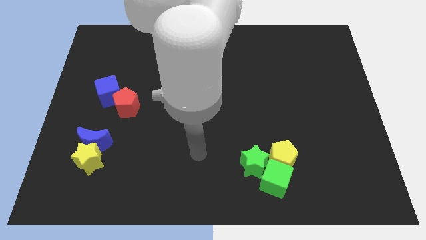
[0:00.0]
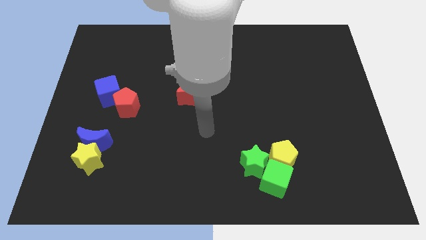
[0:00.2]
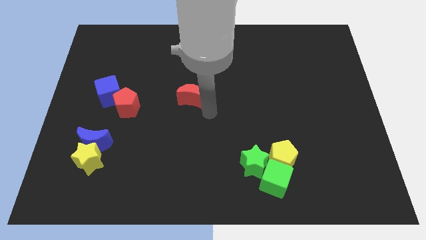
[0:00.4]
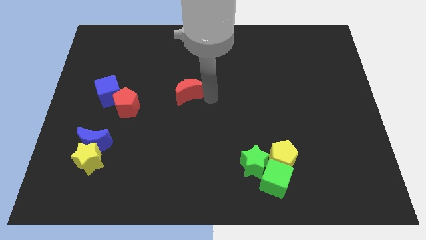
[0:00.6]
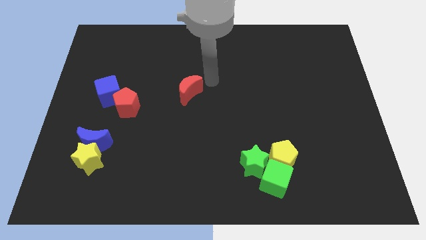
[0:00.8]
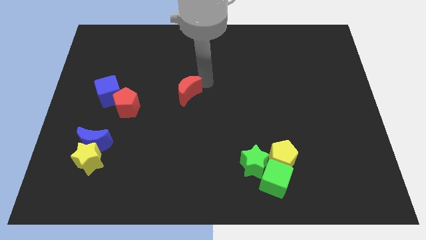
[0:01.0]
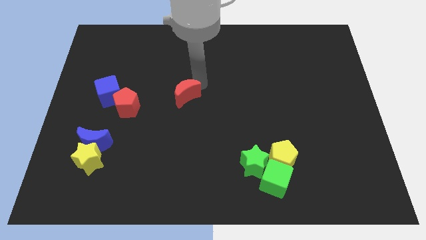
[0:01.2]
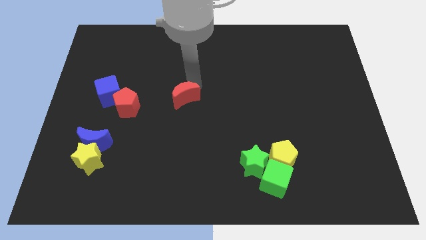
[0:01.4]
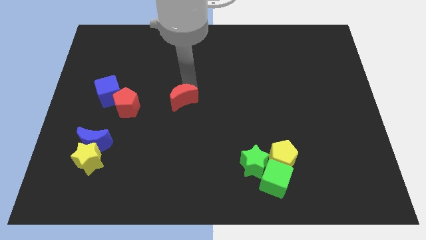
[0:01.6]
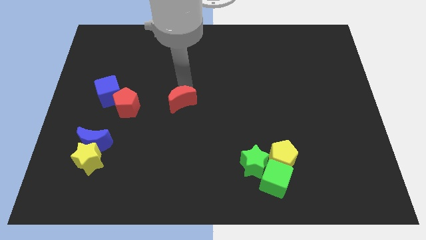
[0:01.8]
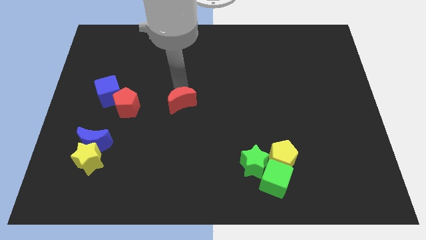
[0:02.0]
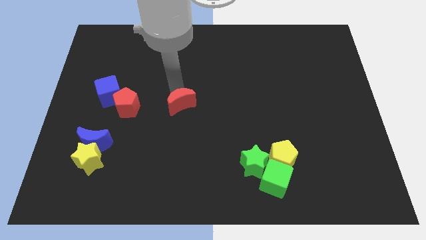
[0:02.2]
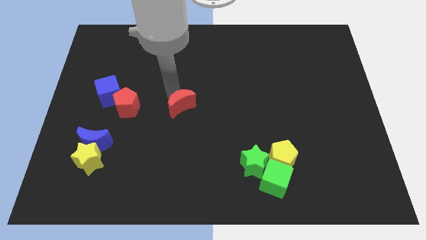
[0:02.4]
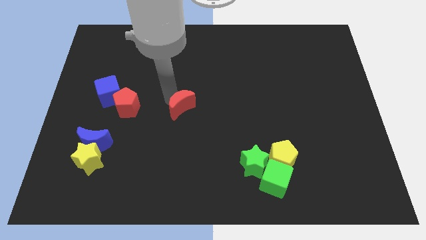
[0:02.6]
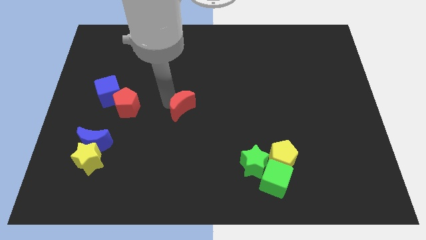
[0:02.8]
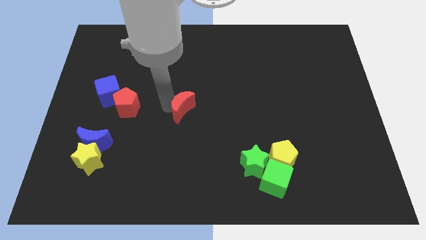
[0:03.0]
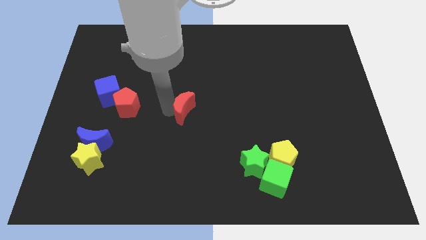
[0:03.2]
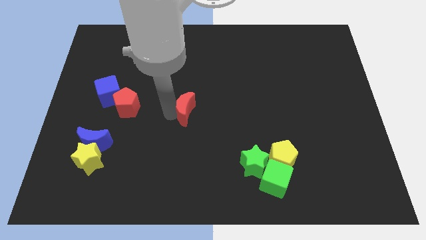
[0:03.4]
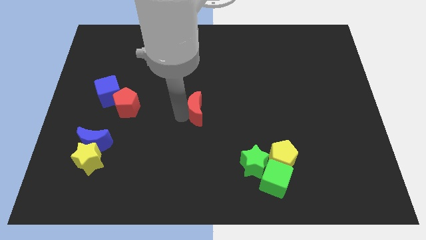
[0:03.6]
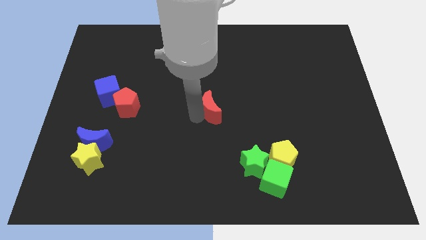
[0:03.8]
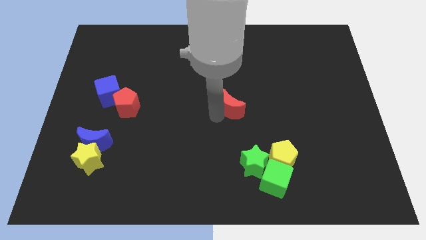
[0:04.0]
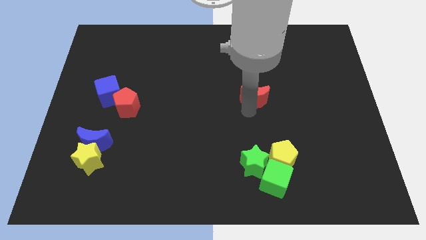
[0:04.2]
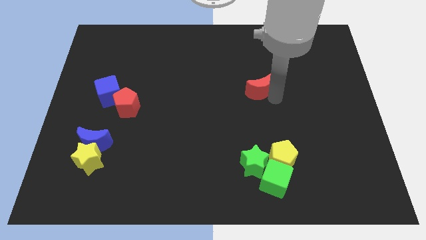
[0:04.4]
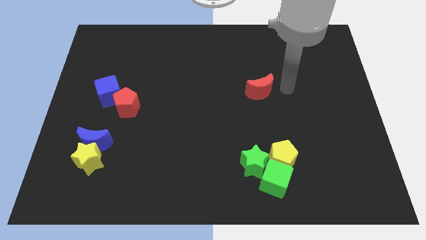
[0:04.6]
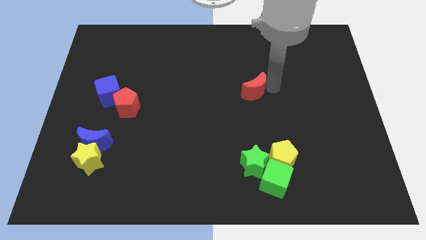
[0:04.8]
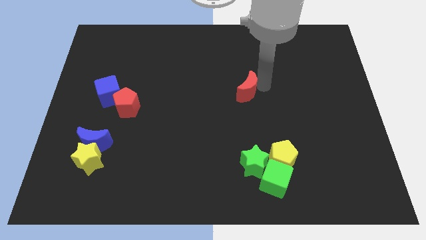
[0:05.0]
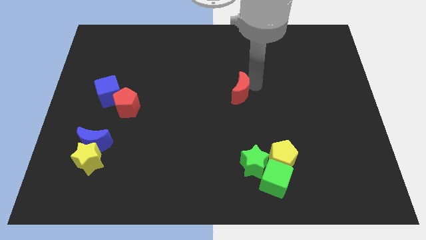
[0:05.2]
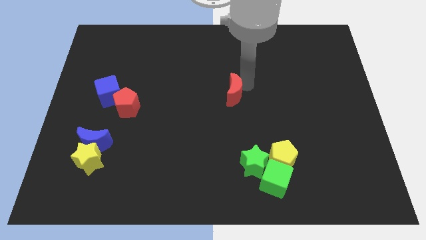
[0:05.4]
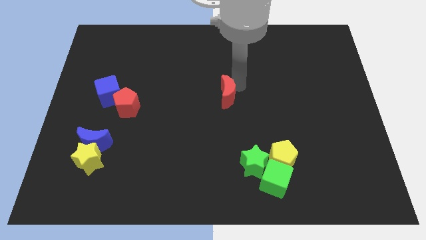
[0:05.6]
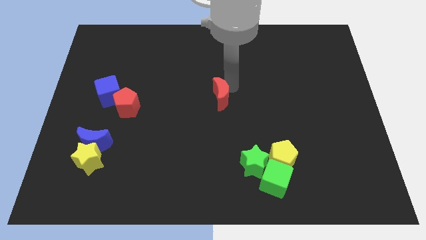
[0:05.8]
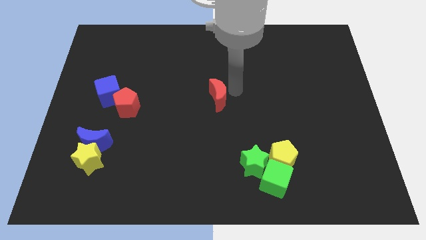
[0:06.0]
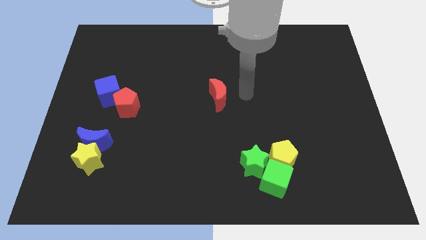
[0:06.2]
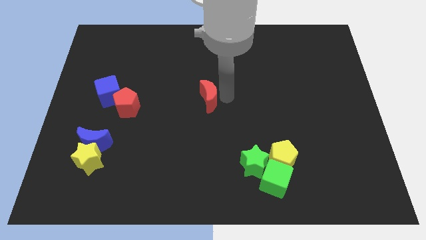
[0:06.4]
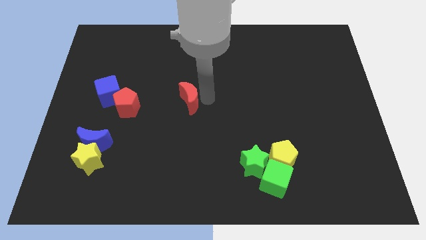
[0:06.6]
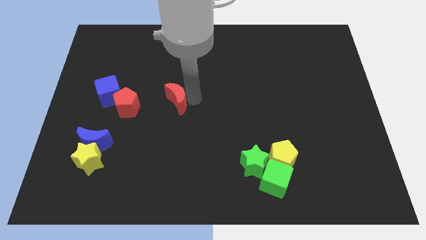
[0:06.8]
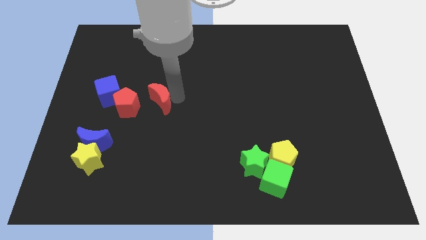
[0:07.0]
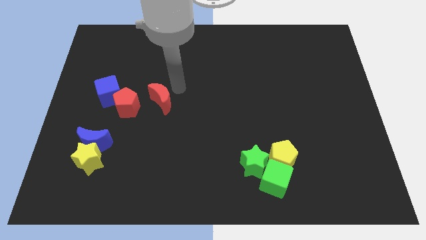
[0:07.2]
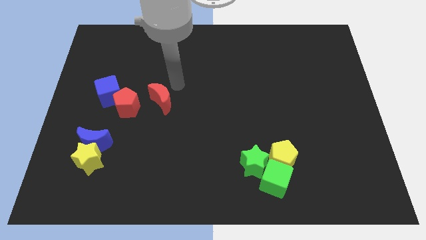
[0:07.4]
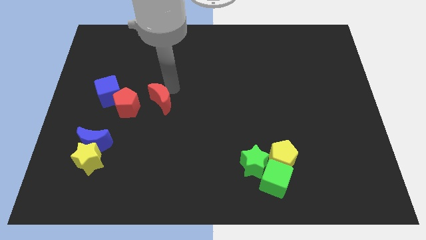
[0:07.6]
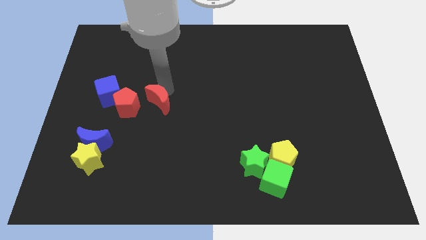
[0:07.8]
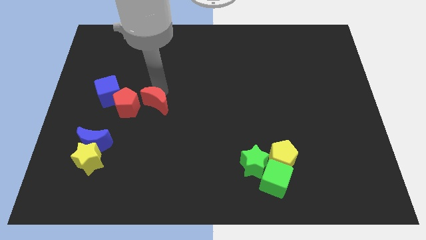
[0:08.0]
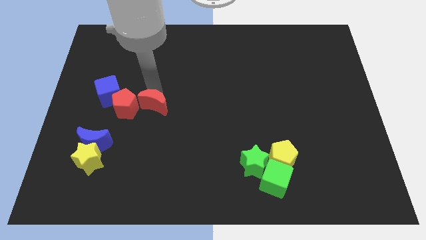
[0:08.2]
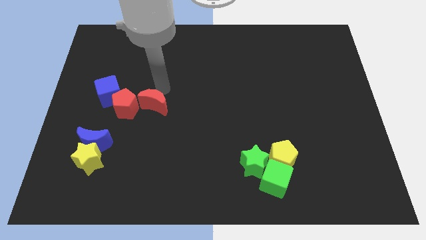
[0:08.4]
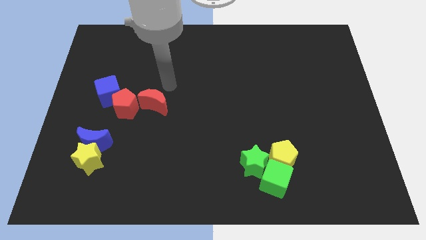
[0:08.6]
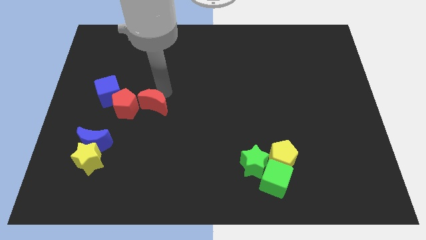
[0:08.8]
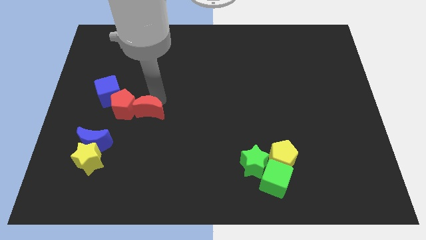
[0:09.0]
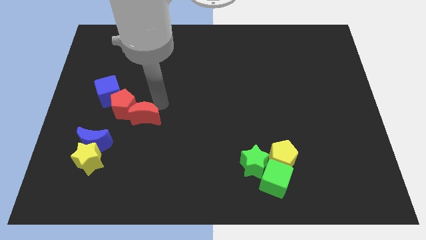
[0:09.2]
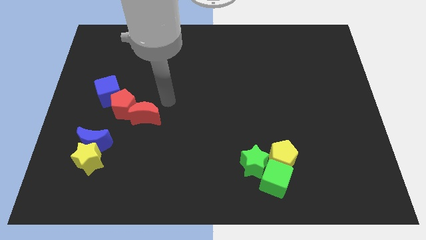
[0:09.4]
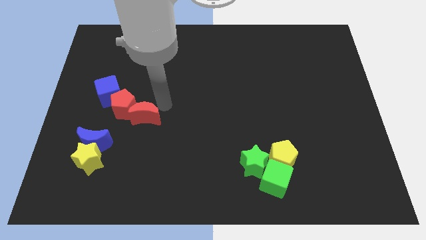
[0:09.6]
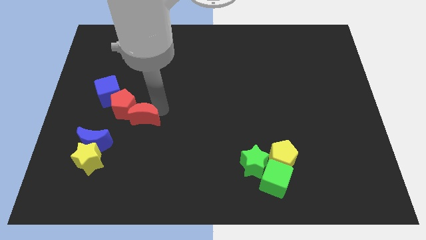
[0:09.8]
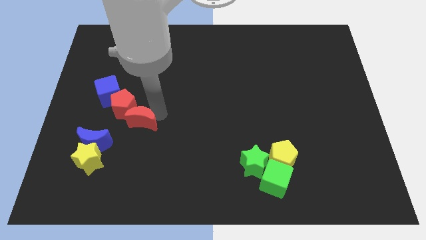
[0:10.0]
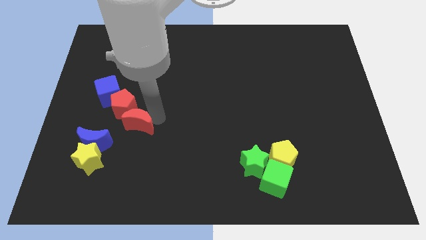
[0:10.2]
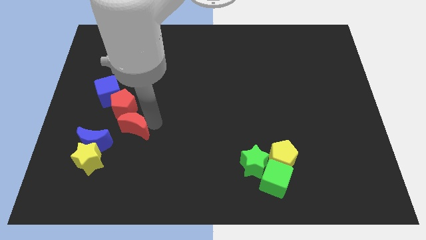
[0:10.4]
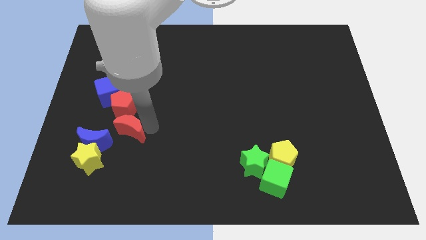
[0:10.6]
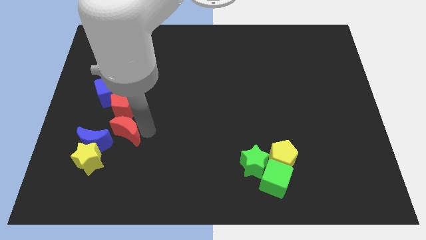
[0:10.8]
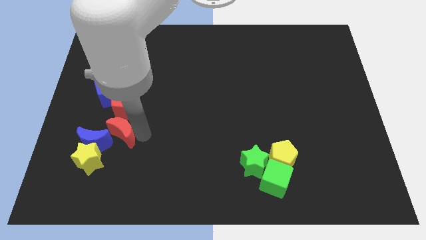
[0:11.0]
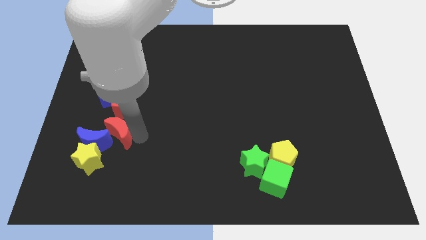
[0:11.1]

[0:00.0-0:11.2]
slide the red moon close to the blue moon

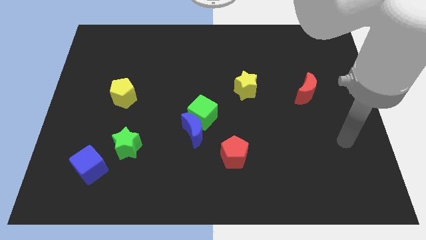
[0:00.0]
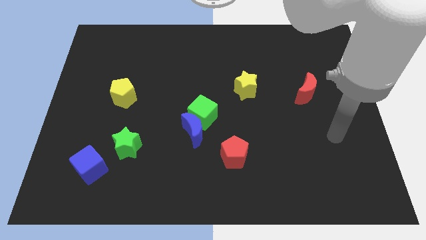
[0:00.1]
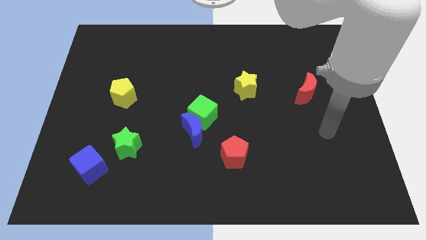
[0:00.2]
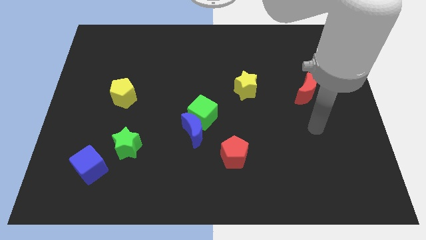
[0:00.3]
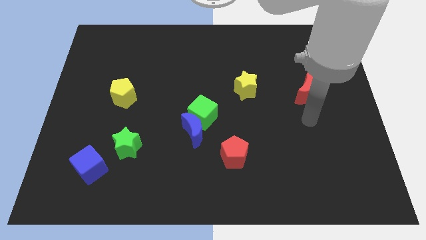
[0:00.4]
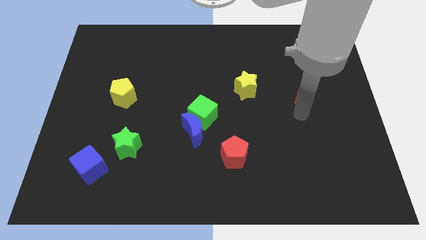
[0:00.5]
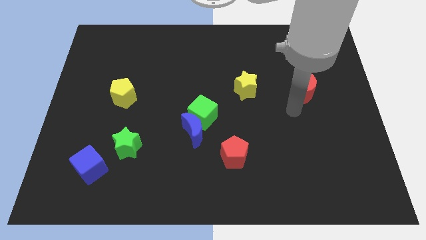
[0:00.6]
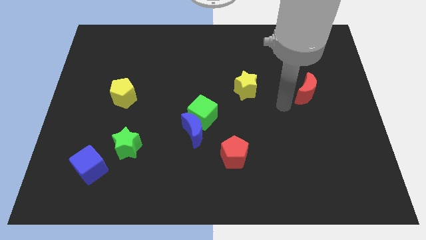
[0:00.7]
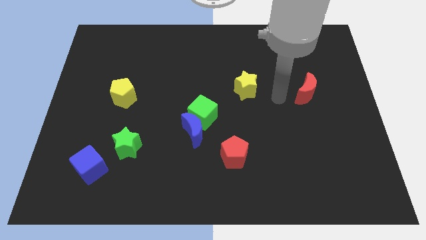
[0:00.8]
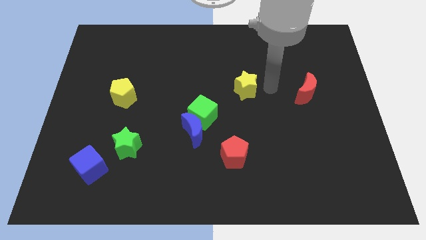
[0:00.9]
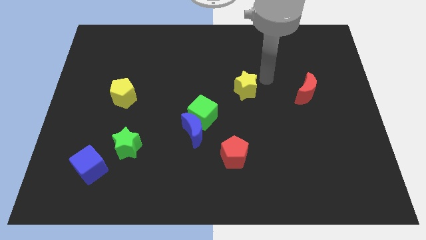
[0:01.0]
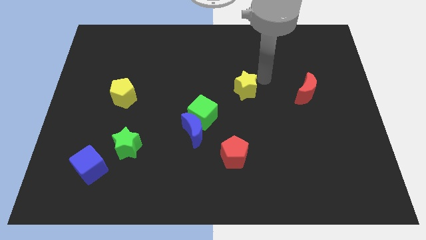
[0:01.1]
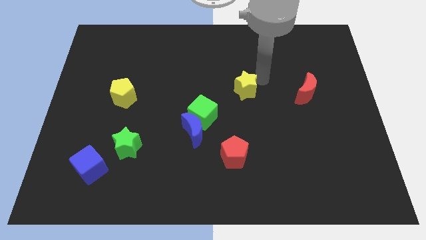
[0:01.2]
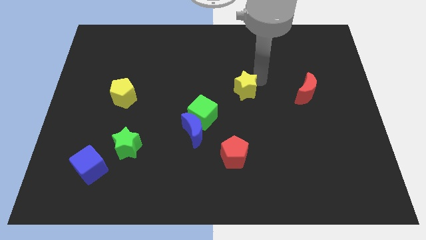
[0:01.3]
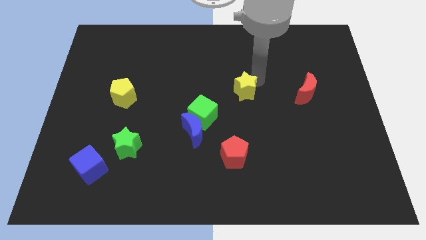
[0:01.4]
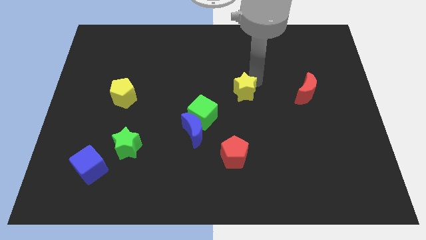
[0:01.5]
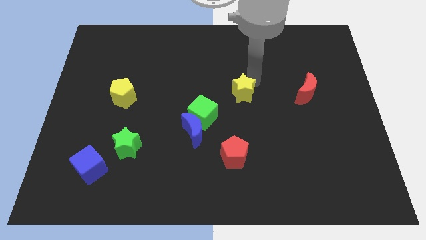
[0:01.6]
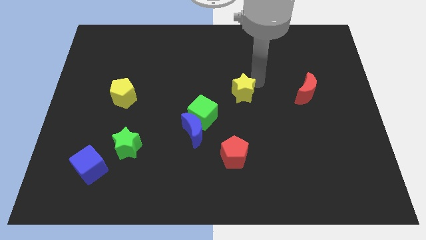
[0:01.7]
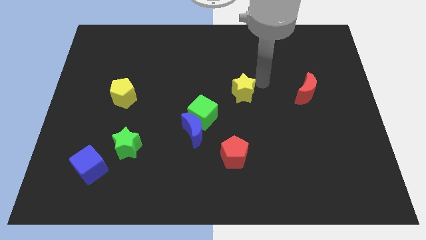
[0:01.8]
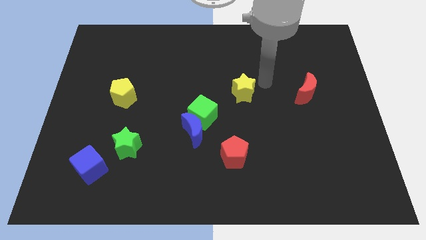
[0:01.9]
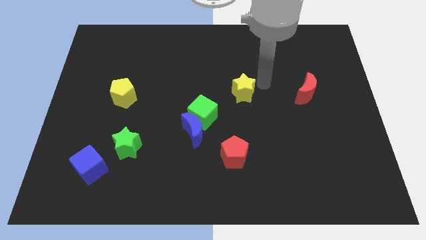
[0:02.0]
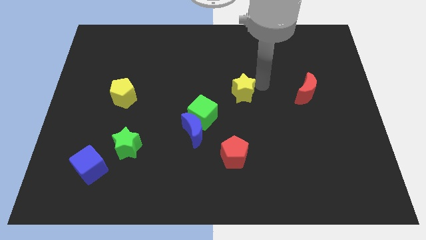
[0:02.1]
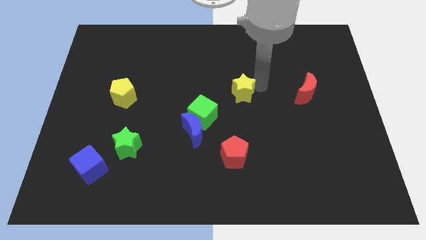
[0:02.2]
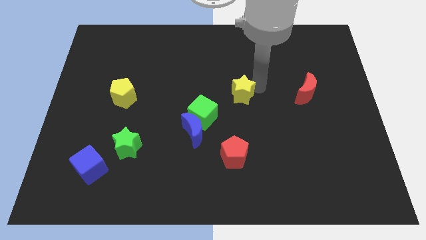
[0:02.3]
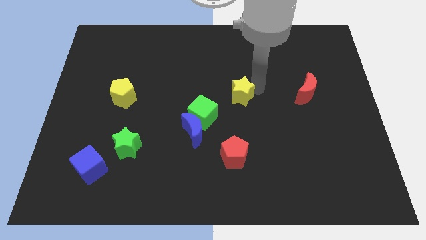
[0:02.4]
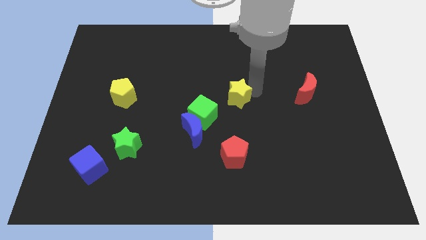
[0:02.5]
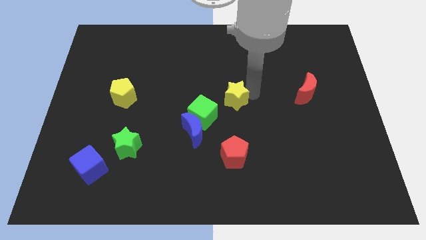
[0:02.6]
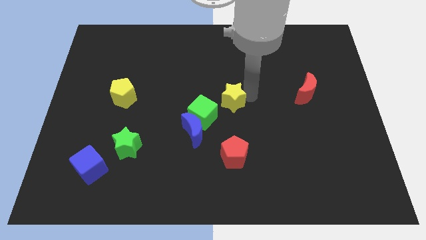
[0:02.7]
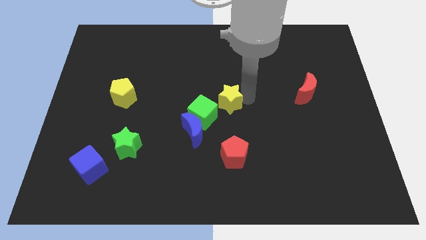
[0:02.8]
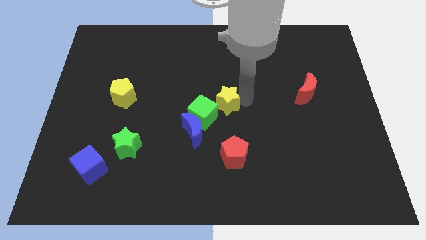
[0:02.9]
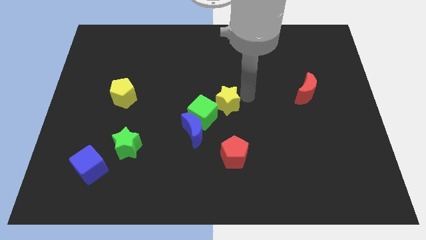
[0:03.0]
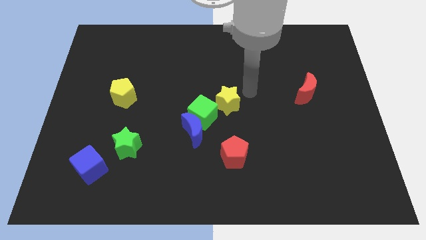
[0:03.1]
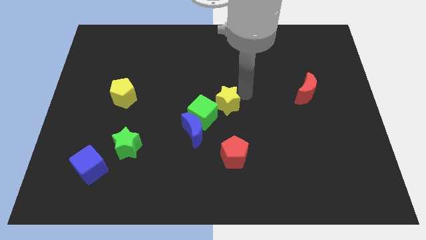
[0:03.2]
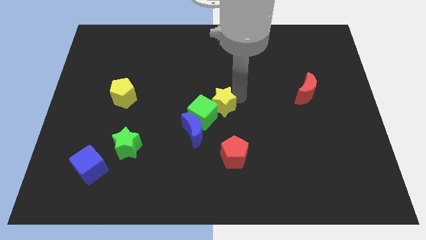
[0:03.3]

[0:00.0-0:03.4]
move the yellow star to the green cube
